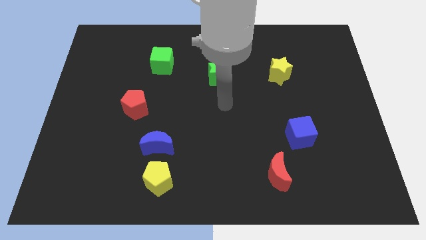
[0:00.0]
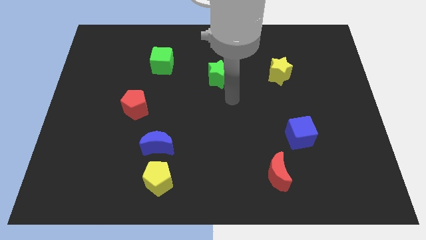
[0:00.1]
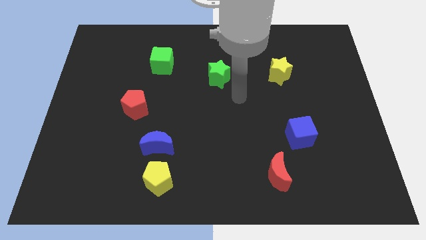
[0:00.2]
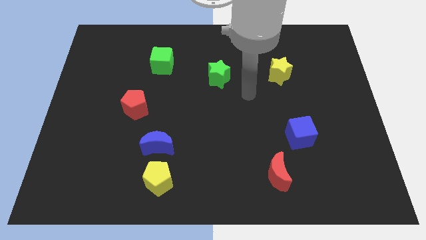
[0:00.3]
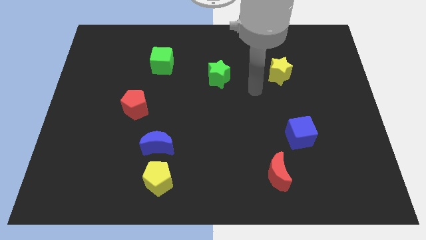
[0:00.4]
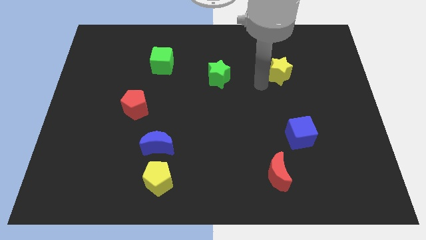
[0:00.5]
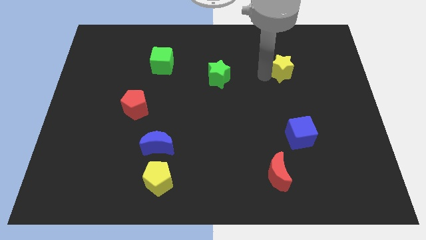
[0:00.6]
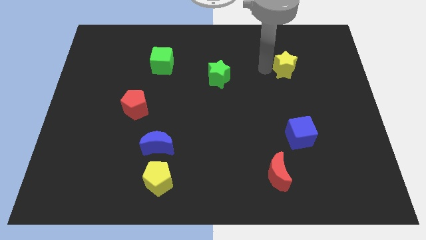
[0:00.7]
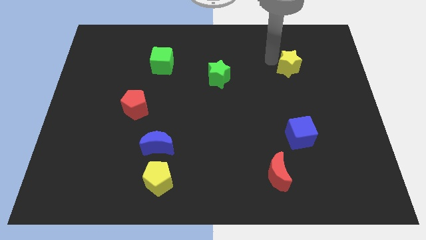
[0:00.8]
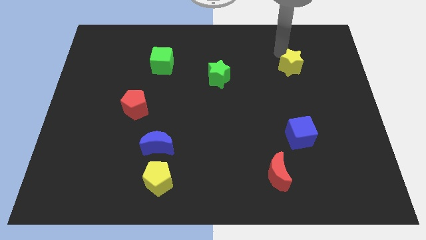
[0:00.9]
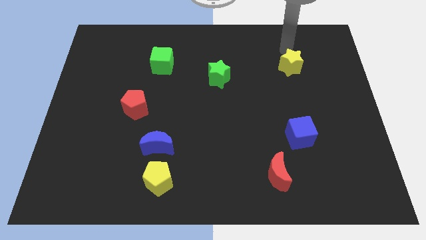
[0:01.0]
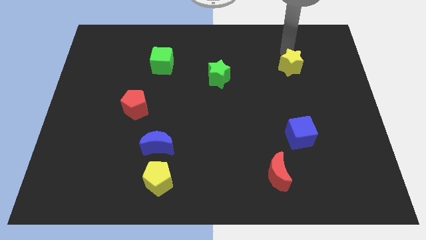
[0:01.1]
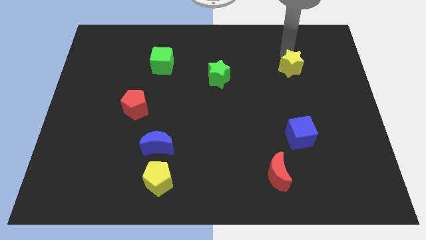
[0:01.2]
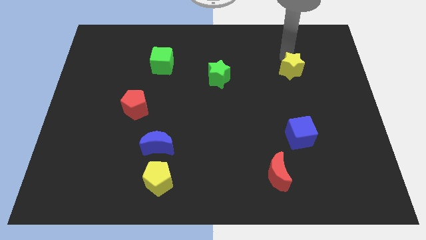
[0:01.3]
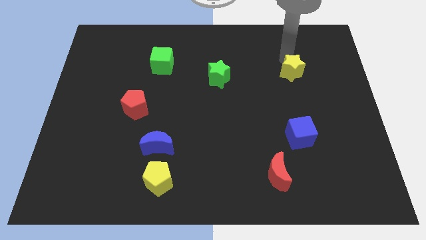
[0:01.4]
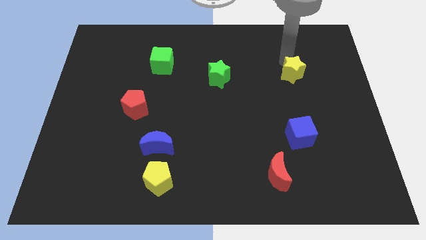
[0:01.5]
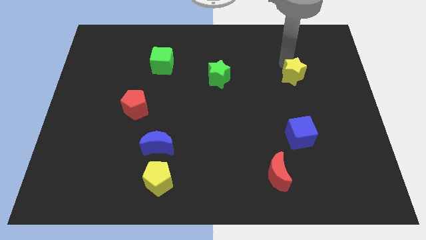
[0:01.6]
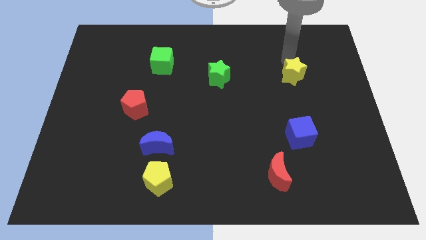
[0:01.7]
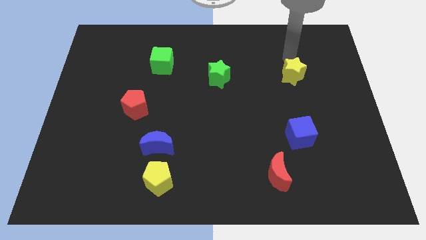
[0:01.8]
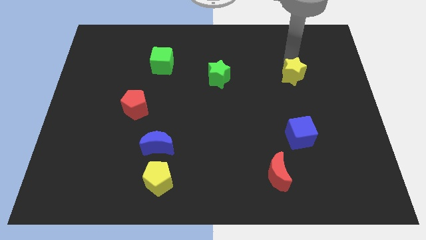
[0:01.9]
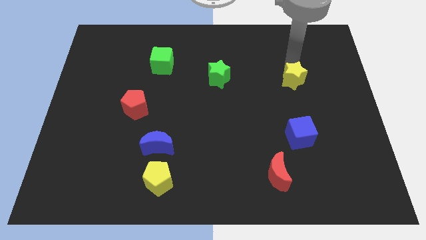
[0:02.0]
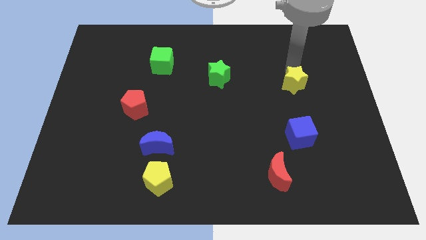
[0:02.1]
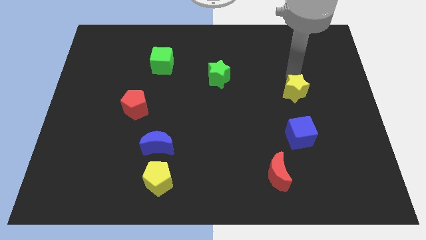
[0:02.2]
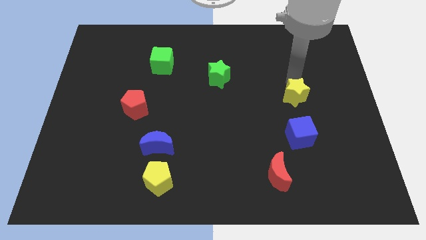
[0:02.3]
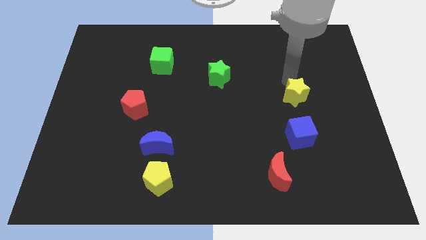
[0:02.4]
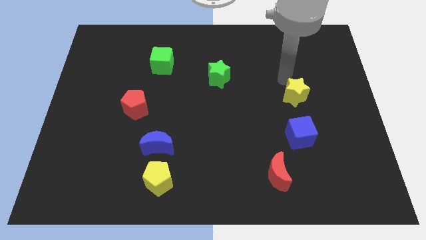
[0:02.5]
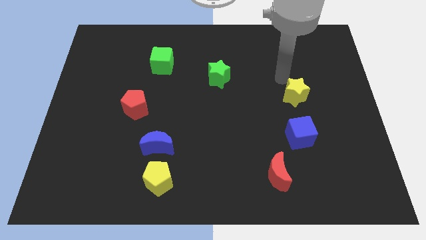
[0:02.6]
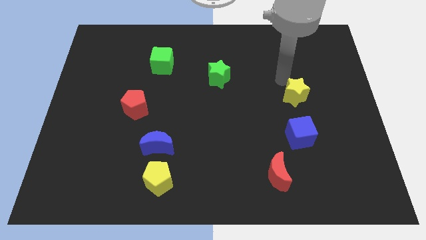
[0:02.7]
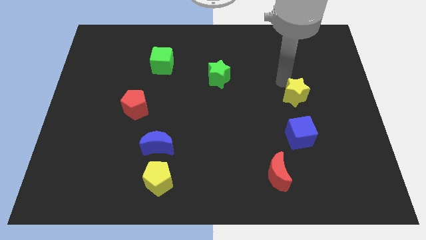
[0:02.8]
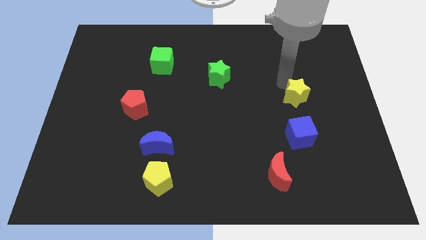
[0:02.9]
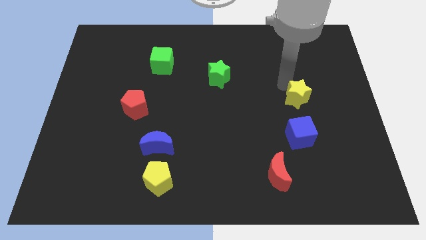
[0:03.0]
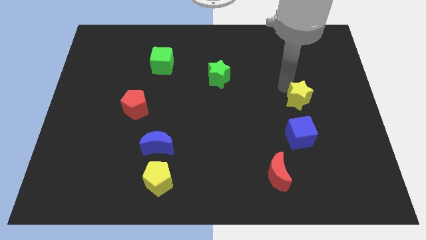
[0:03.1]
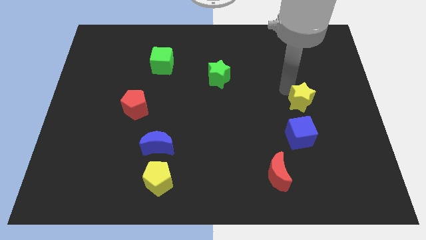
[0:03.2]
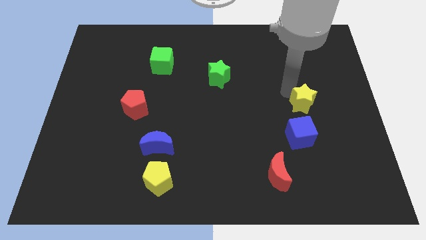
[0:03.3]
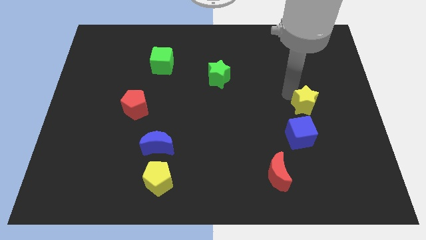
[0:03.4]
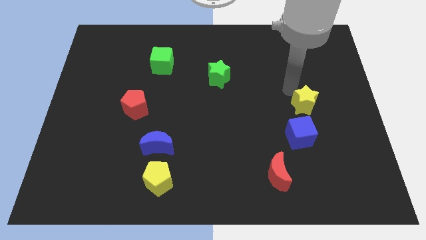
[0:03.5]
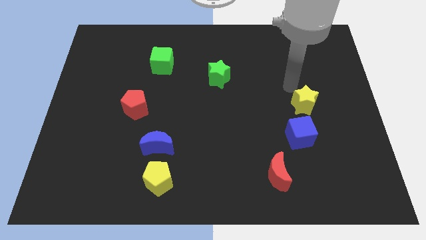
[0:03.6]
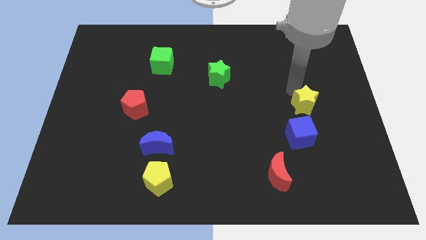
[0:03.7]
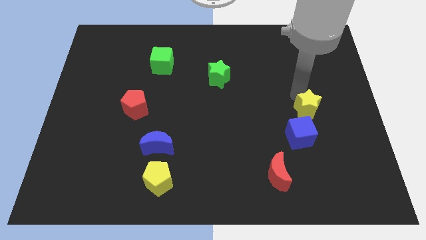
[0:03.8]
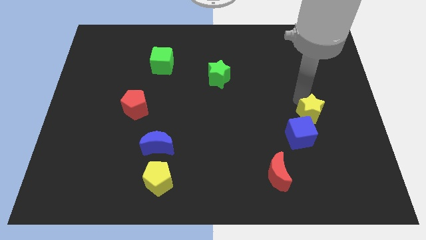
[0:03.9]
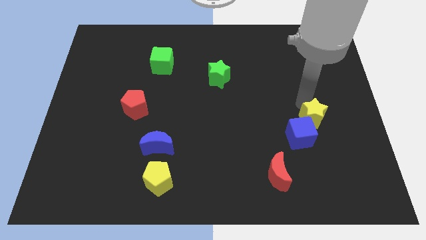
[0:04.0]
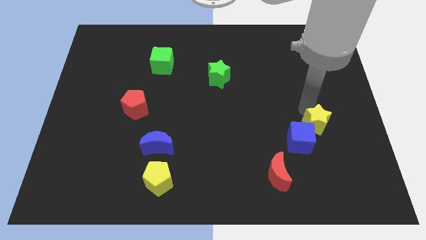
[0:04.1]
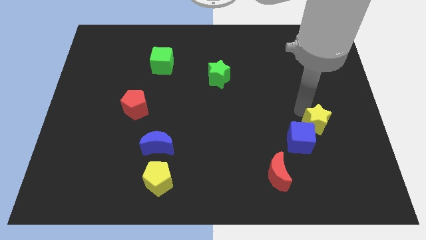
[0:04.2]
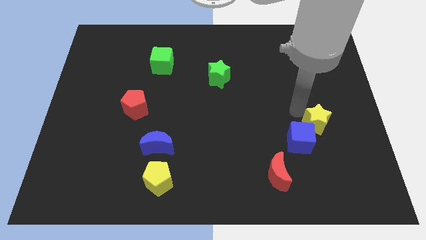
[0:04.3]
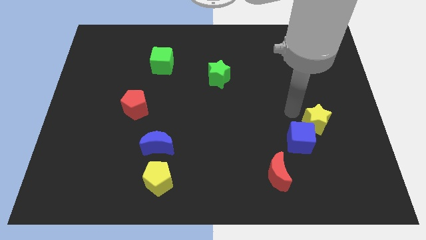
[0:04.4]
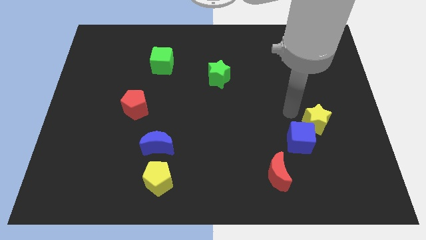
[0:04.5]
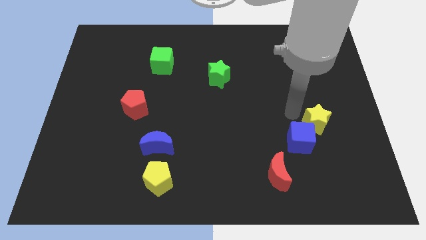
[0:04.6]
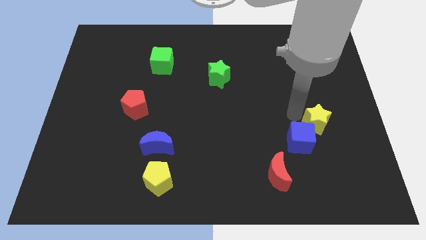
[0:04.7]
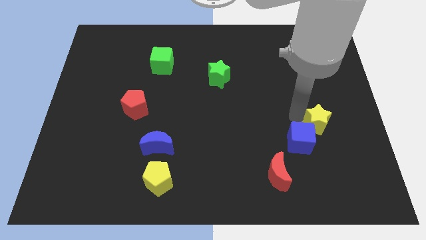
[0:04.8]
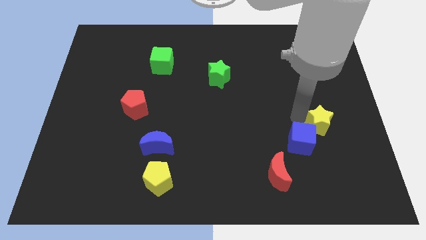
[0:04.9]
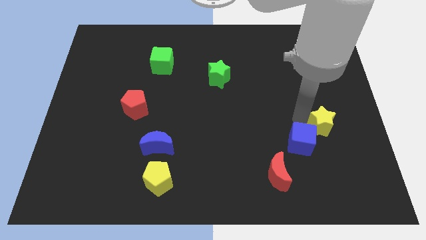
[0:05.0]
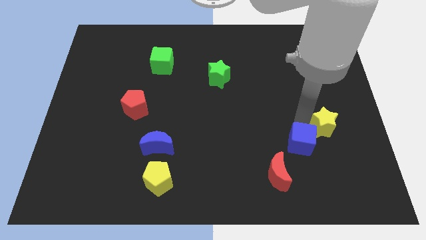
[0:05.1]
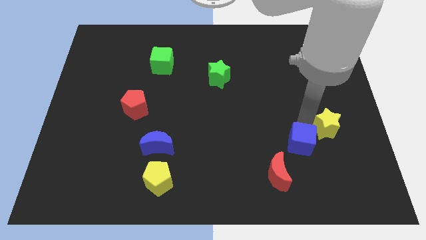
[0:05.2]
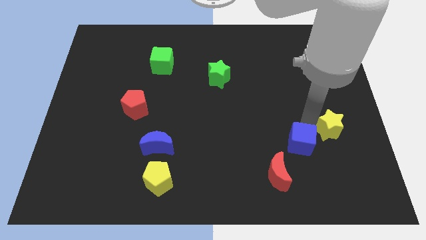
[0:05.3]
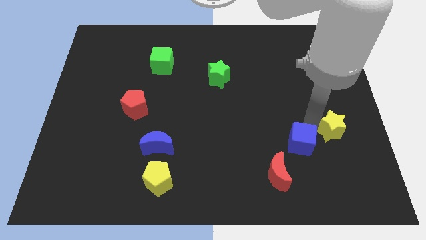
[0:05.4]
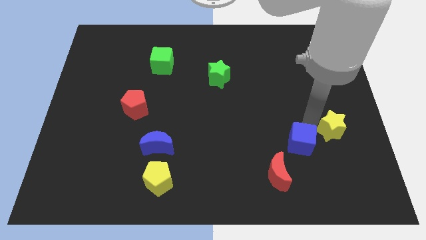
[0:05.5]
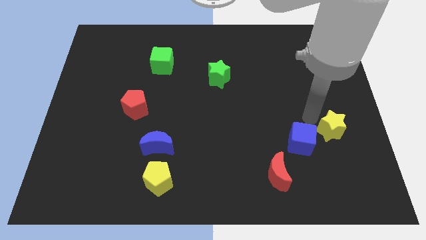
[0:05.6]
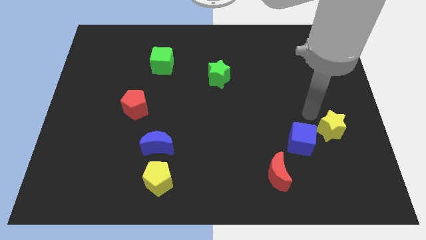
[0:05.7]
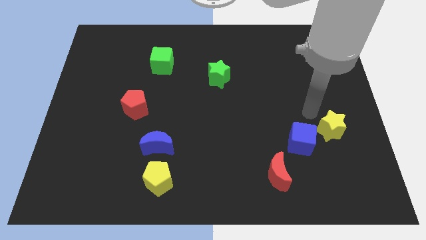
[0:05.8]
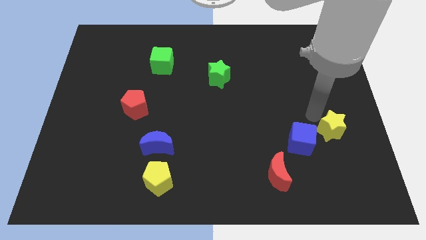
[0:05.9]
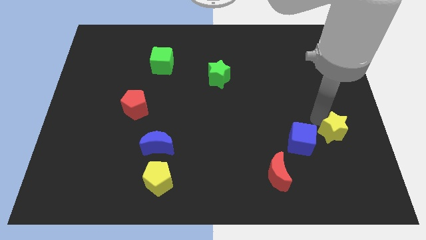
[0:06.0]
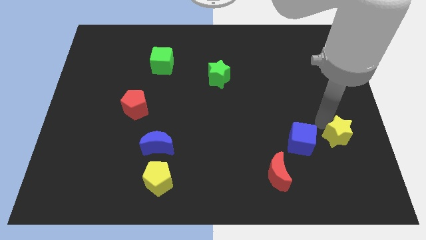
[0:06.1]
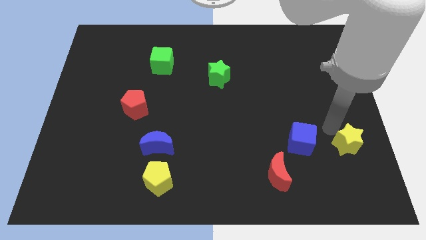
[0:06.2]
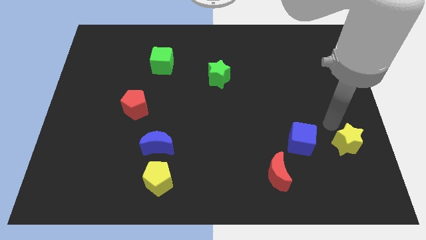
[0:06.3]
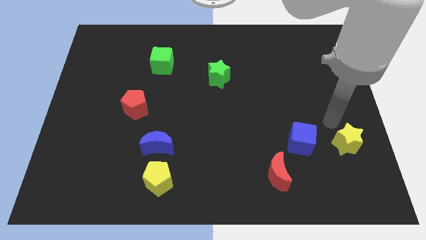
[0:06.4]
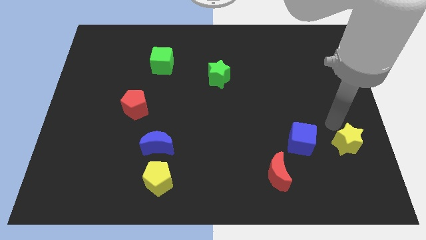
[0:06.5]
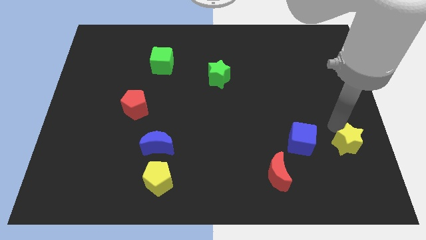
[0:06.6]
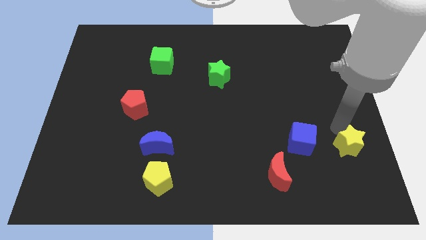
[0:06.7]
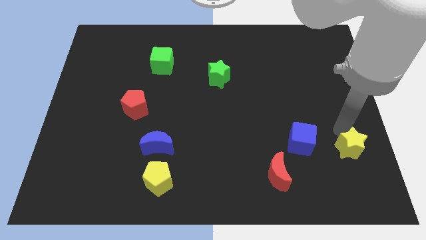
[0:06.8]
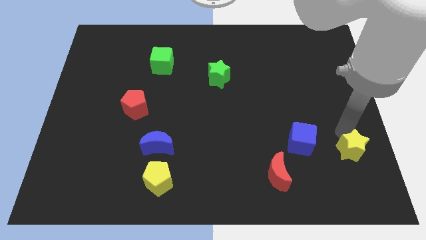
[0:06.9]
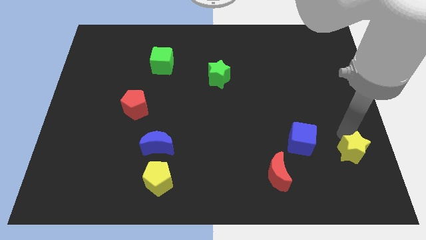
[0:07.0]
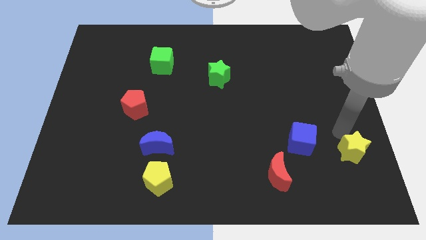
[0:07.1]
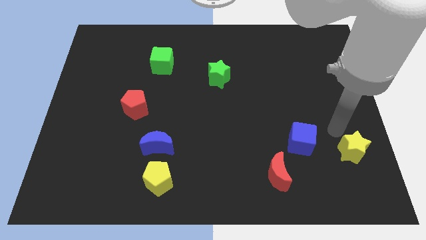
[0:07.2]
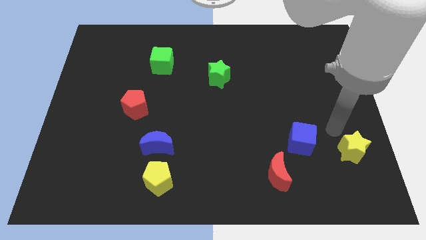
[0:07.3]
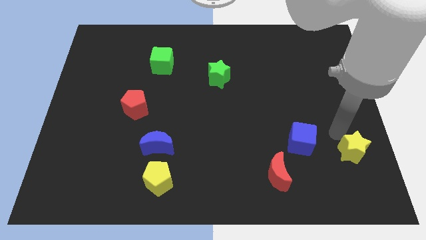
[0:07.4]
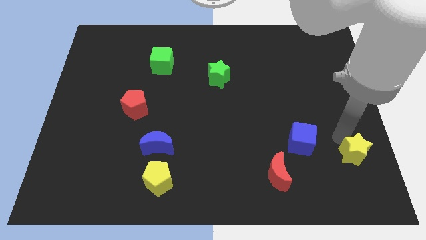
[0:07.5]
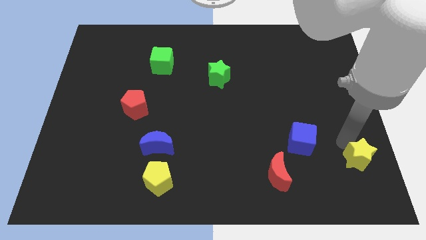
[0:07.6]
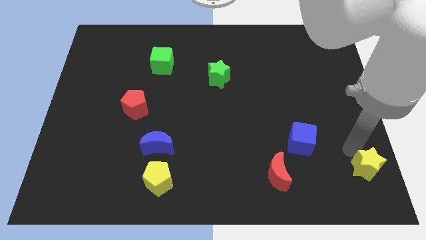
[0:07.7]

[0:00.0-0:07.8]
put the yellow star to the bottom right of the board
